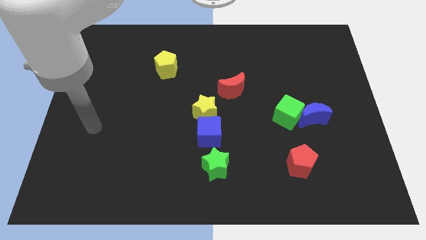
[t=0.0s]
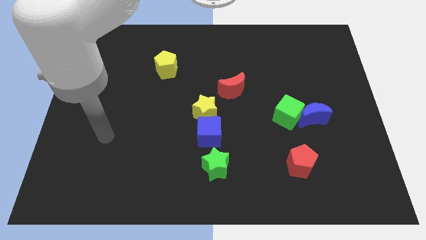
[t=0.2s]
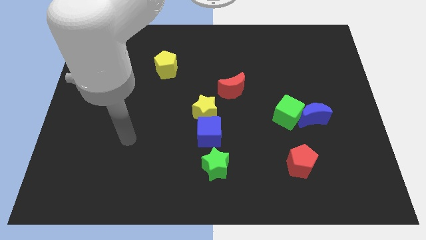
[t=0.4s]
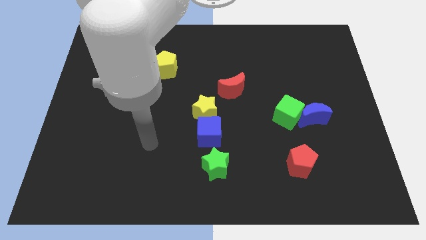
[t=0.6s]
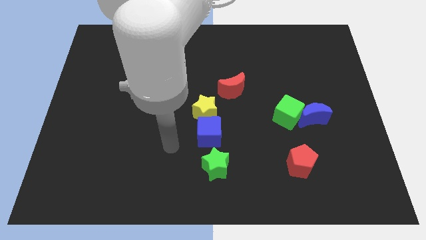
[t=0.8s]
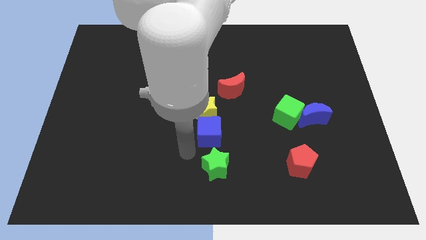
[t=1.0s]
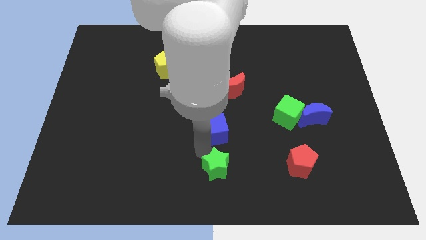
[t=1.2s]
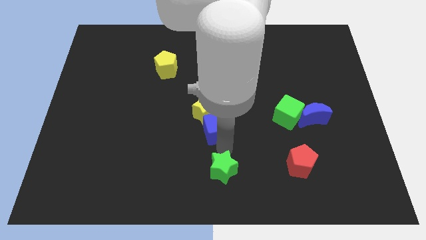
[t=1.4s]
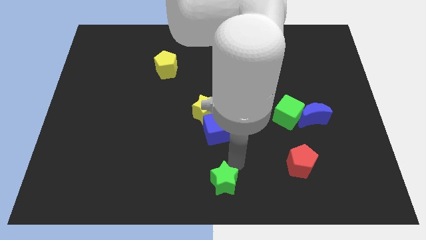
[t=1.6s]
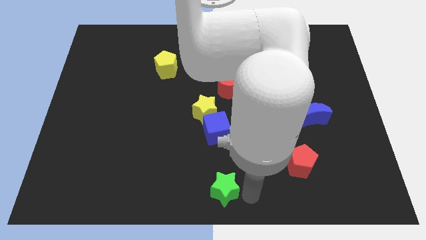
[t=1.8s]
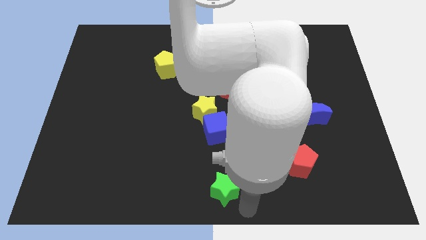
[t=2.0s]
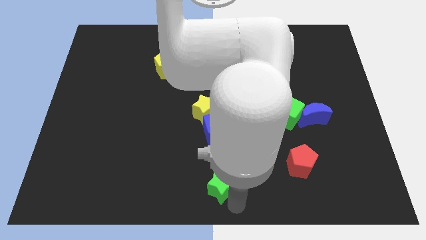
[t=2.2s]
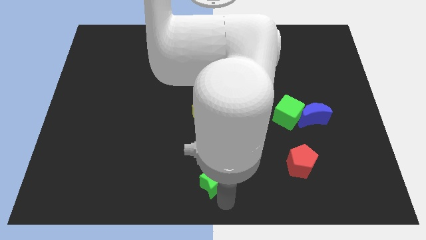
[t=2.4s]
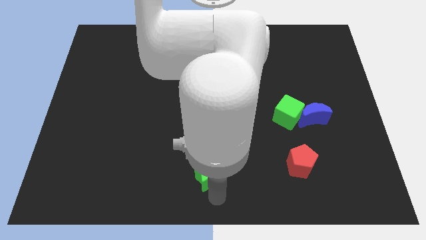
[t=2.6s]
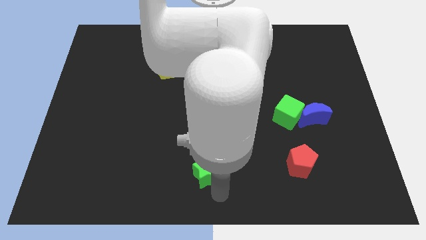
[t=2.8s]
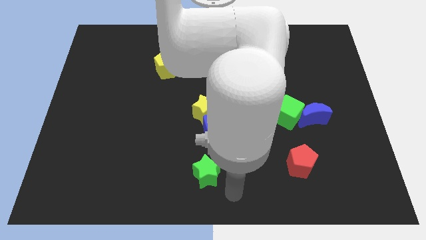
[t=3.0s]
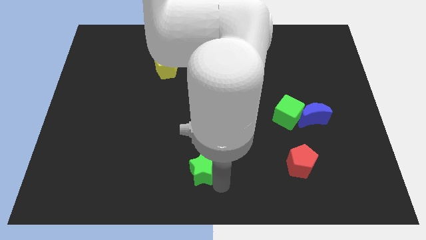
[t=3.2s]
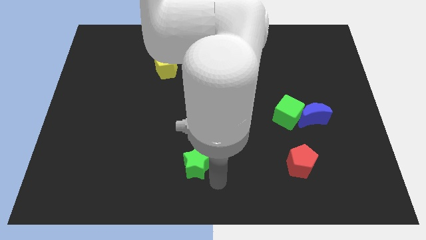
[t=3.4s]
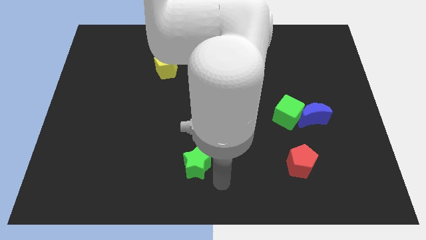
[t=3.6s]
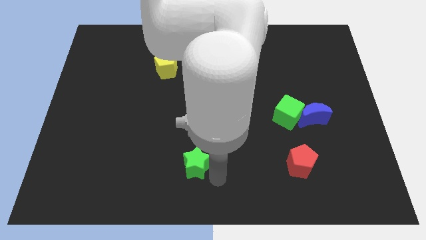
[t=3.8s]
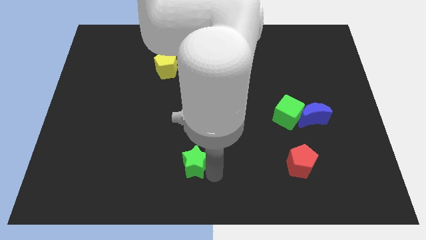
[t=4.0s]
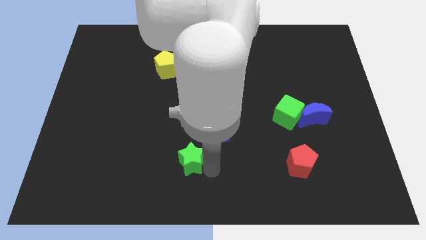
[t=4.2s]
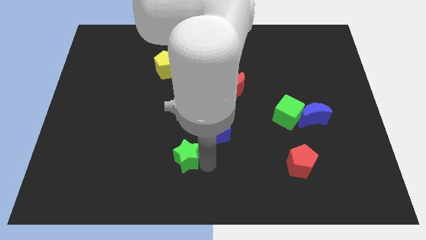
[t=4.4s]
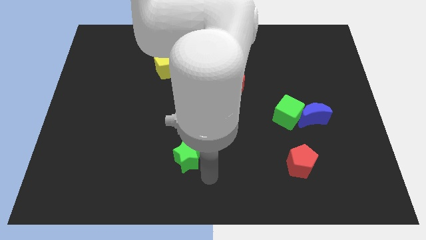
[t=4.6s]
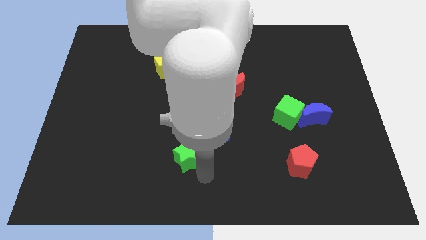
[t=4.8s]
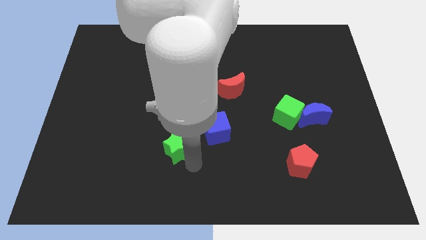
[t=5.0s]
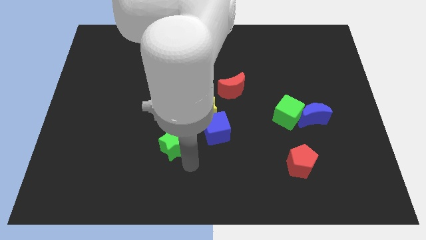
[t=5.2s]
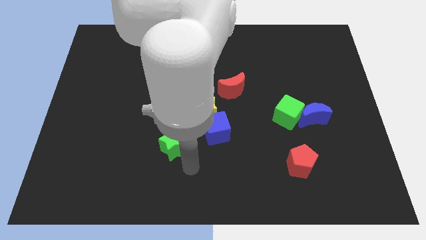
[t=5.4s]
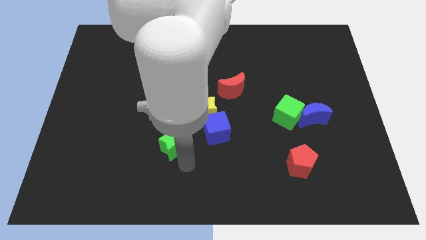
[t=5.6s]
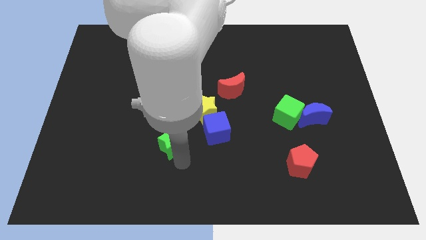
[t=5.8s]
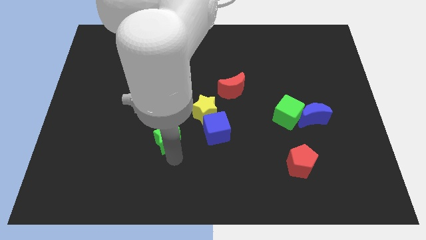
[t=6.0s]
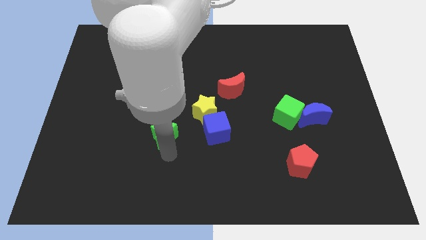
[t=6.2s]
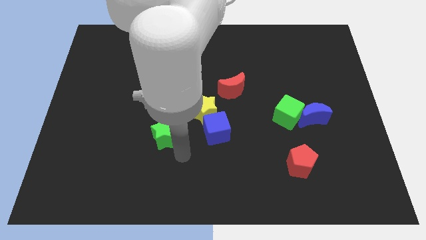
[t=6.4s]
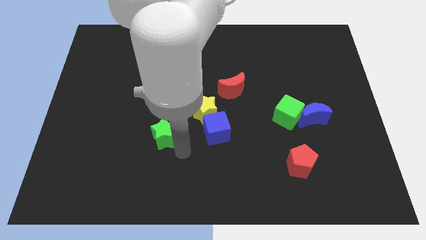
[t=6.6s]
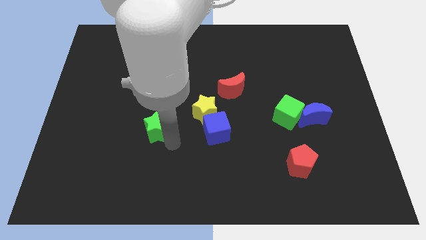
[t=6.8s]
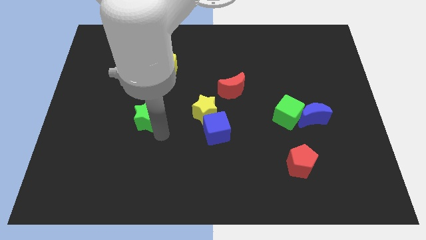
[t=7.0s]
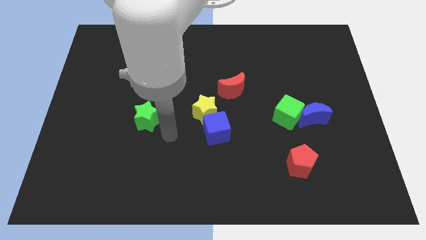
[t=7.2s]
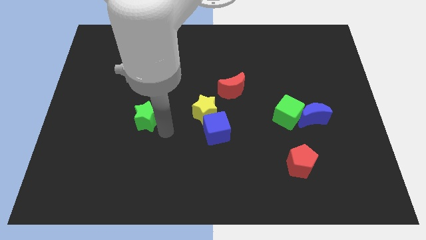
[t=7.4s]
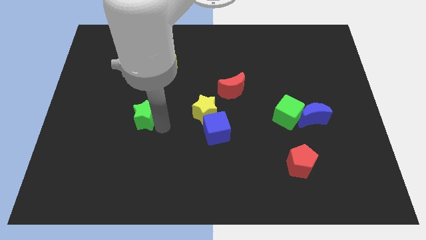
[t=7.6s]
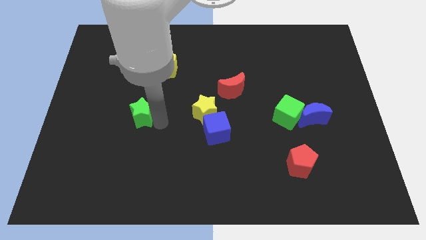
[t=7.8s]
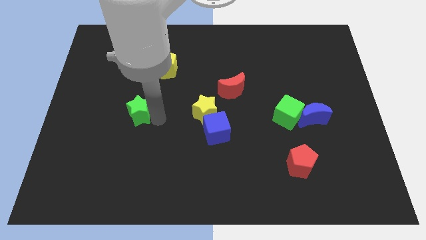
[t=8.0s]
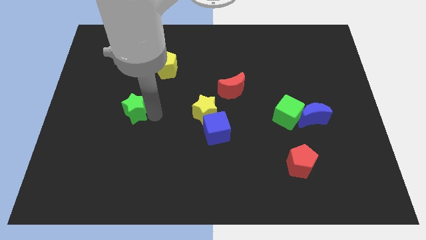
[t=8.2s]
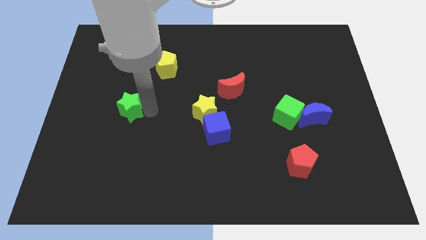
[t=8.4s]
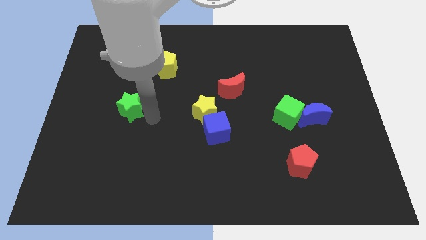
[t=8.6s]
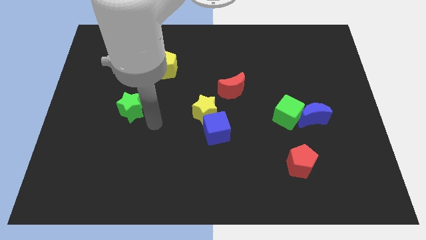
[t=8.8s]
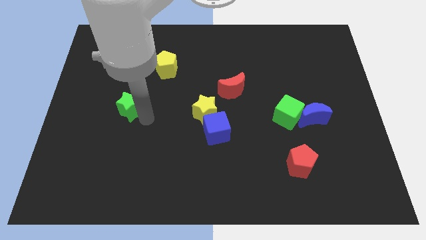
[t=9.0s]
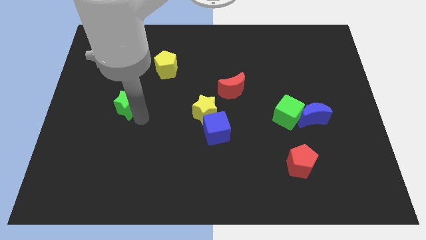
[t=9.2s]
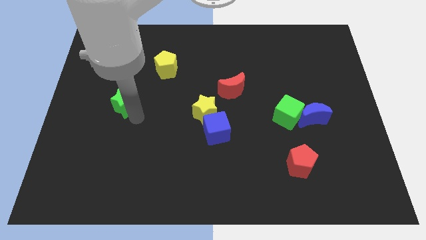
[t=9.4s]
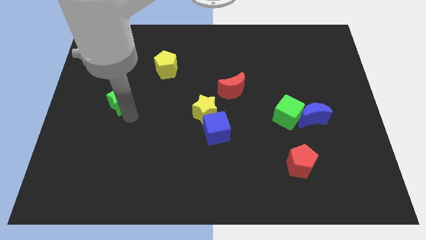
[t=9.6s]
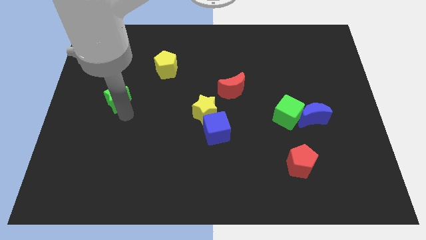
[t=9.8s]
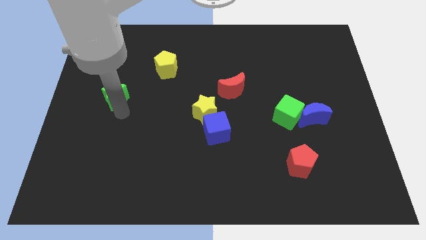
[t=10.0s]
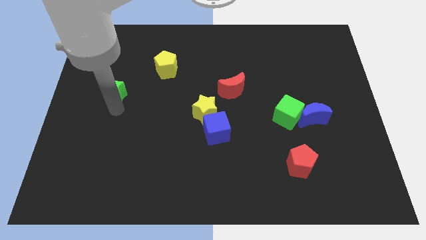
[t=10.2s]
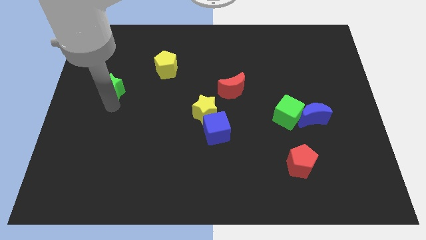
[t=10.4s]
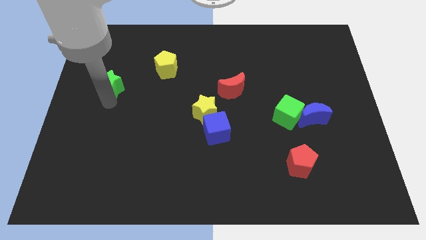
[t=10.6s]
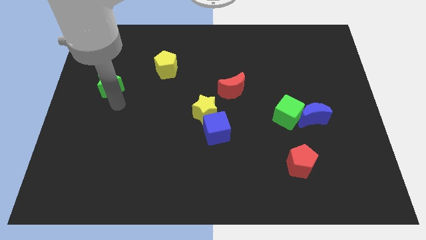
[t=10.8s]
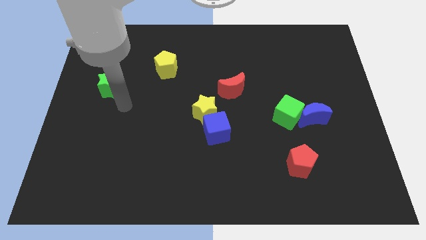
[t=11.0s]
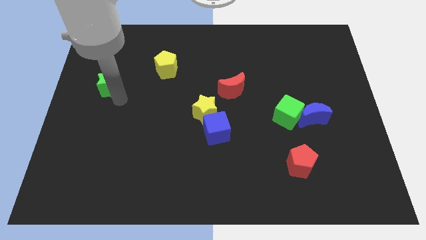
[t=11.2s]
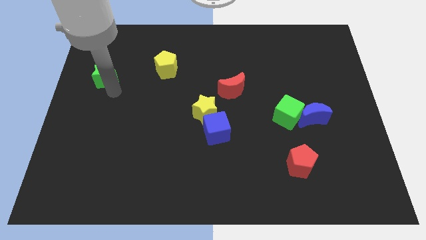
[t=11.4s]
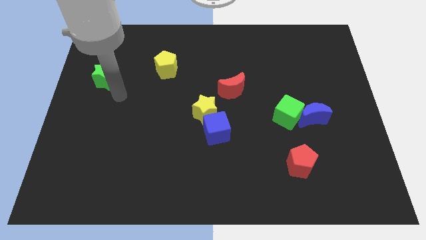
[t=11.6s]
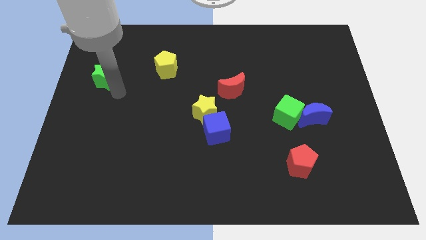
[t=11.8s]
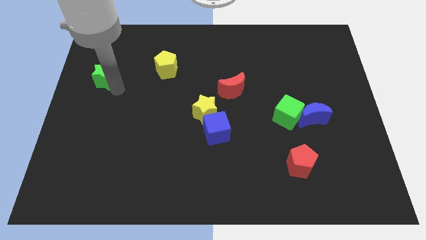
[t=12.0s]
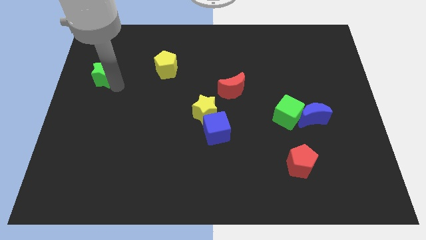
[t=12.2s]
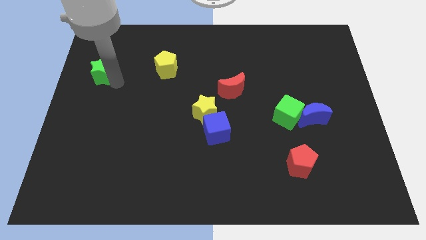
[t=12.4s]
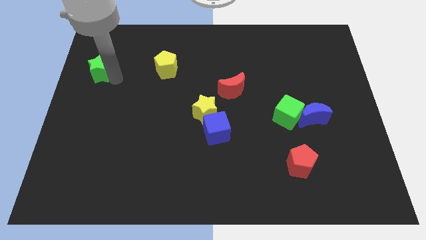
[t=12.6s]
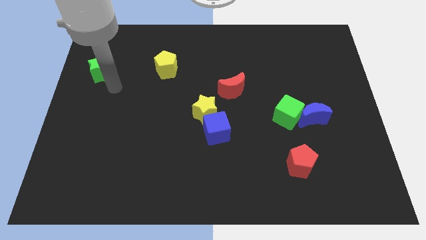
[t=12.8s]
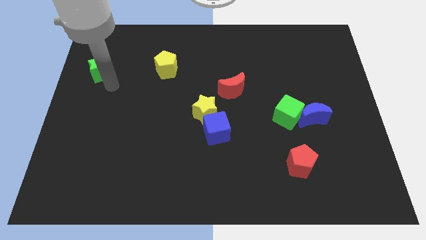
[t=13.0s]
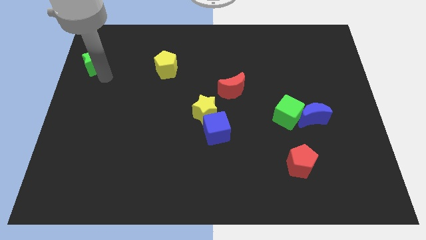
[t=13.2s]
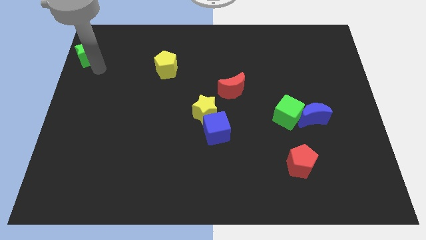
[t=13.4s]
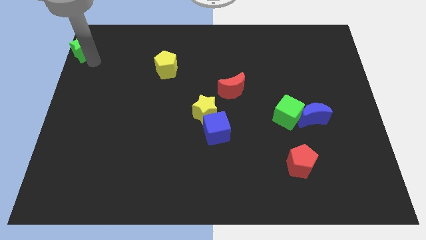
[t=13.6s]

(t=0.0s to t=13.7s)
put the green star to the top left corner
